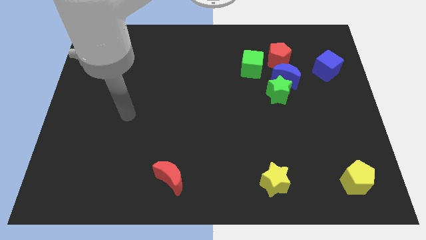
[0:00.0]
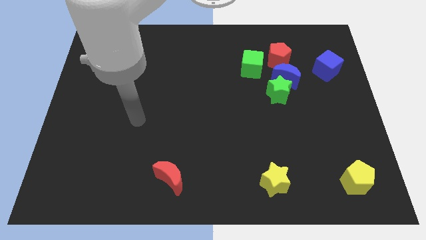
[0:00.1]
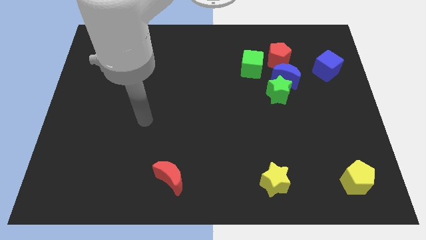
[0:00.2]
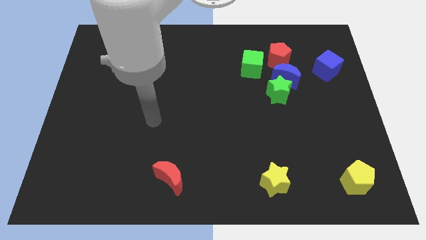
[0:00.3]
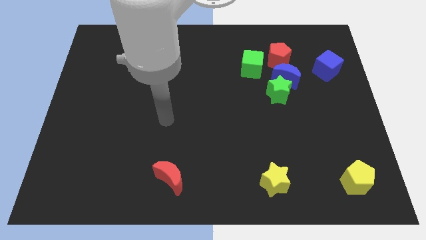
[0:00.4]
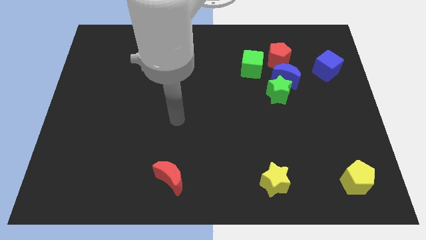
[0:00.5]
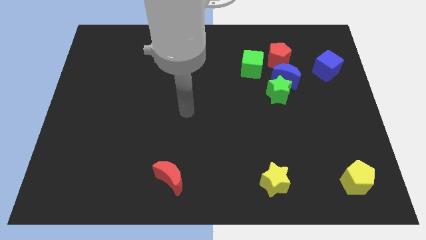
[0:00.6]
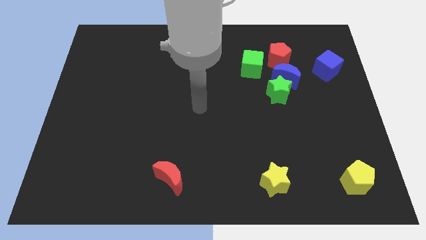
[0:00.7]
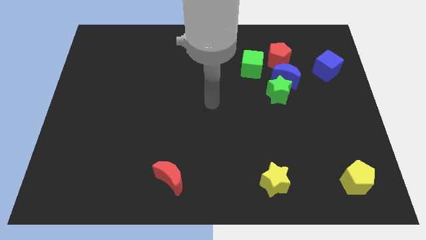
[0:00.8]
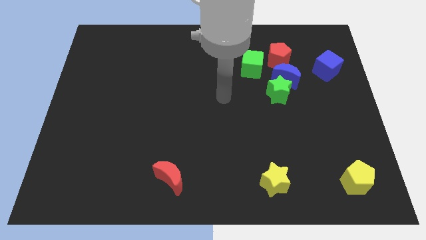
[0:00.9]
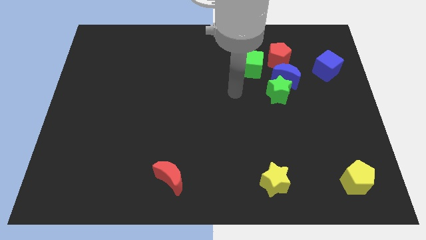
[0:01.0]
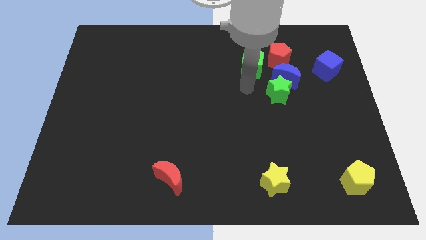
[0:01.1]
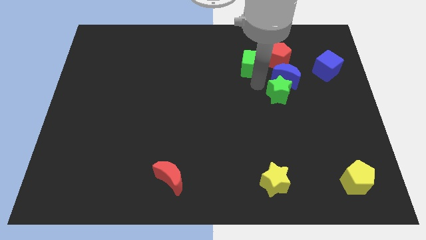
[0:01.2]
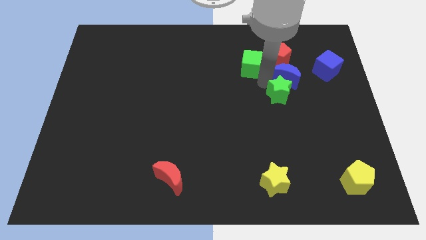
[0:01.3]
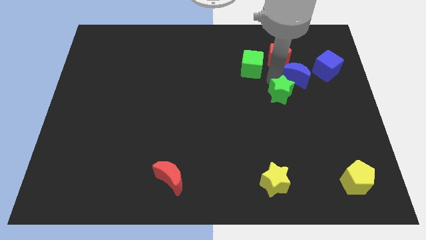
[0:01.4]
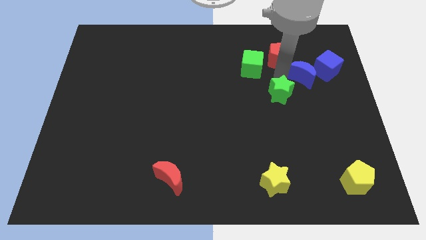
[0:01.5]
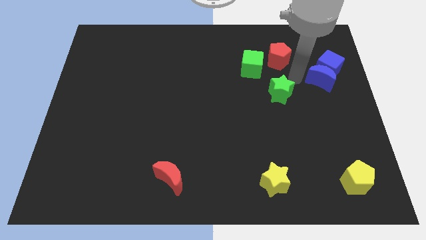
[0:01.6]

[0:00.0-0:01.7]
move the green star away from the blue moon

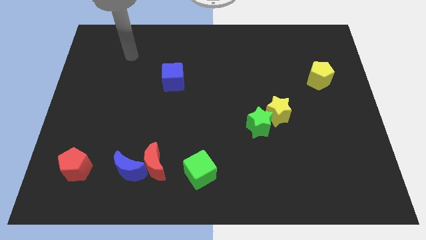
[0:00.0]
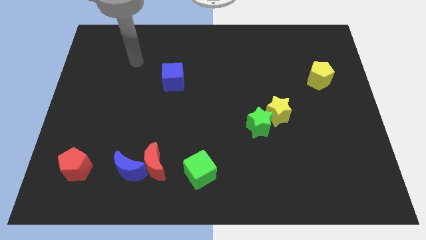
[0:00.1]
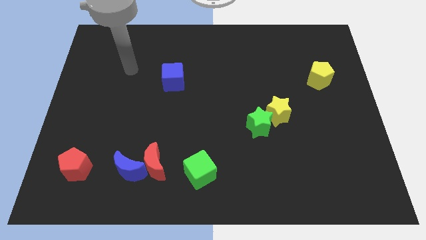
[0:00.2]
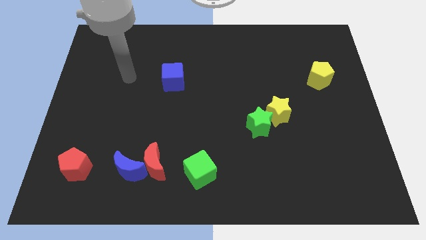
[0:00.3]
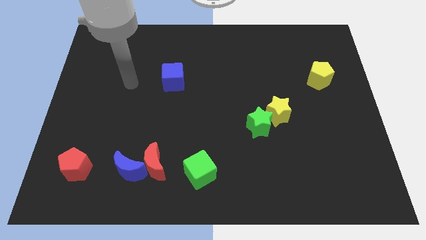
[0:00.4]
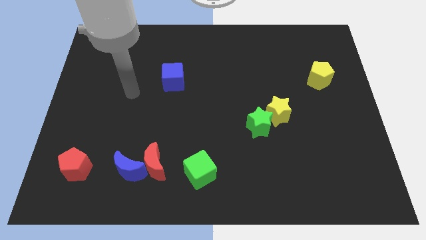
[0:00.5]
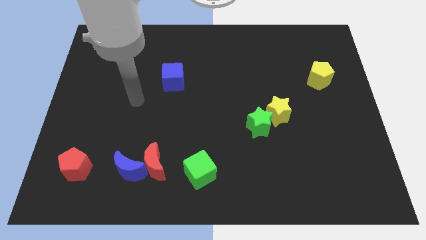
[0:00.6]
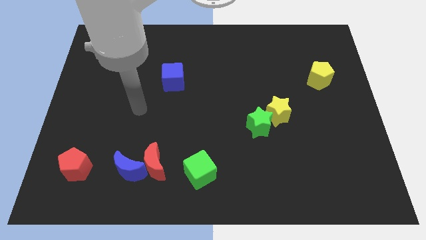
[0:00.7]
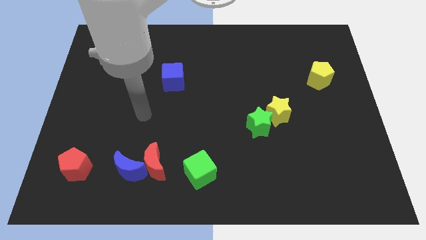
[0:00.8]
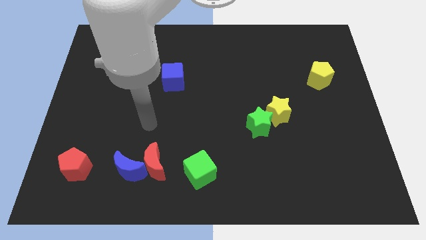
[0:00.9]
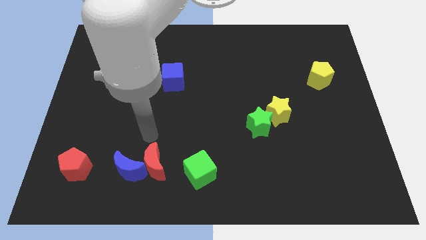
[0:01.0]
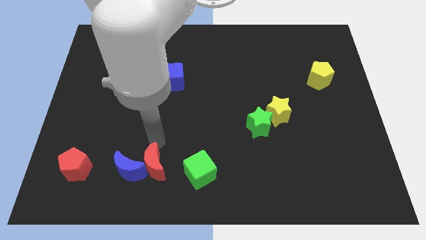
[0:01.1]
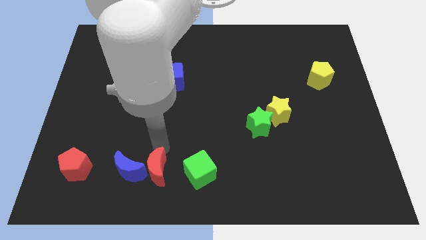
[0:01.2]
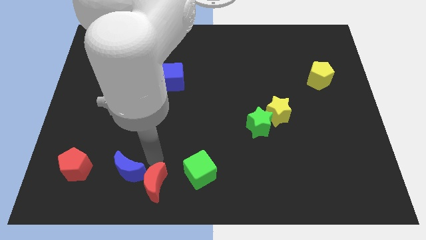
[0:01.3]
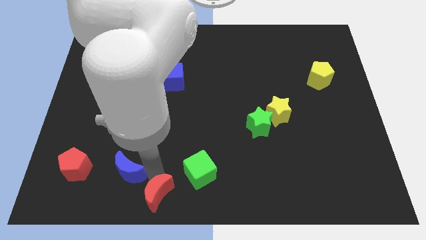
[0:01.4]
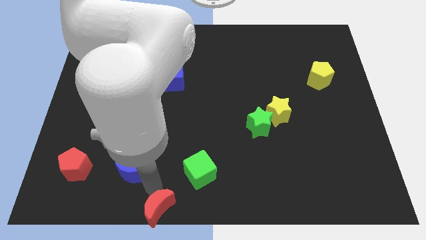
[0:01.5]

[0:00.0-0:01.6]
separate the blue moon from the red moon

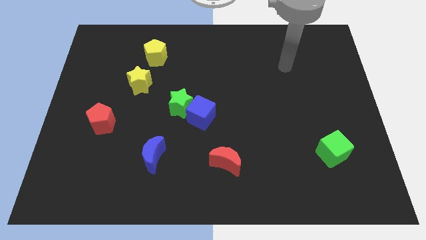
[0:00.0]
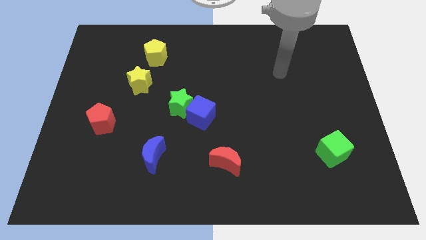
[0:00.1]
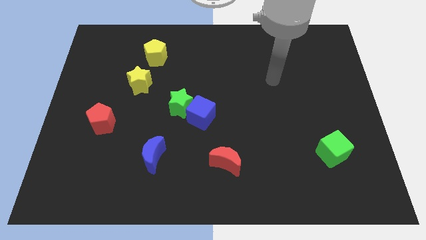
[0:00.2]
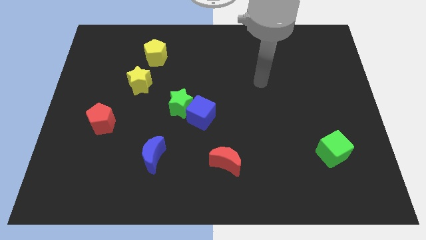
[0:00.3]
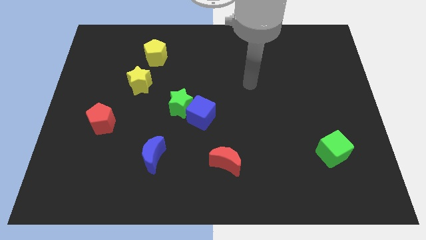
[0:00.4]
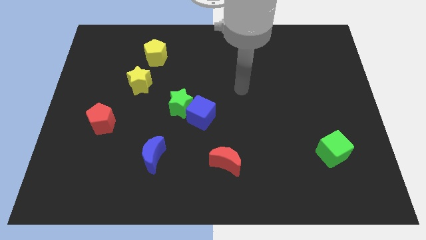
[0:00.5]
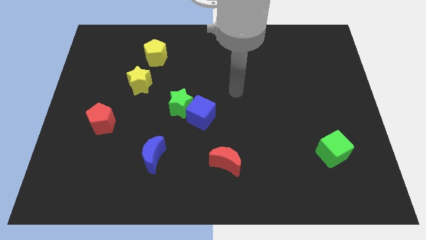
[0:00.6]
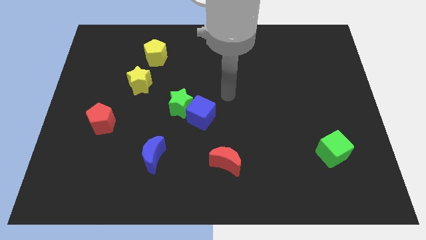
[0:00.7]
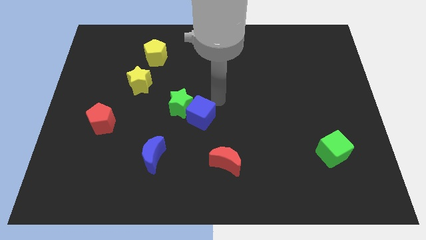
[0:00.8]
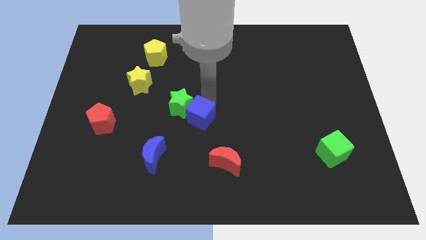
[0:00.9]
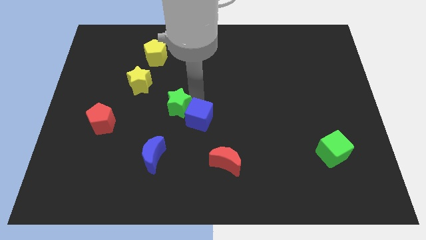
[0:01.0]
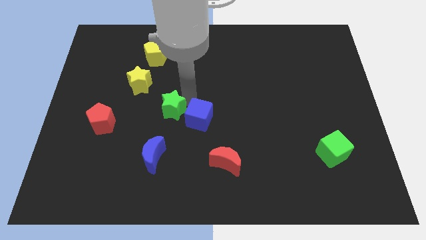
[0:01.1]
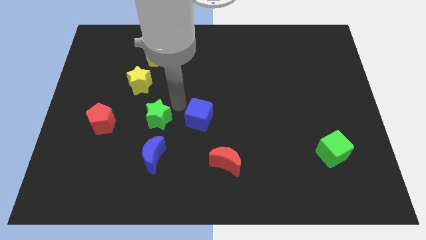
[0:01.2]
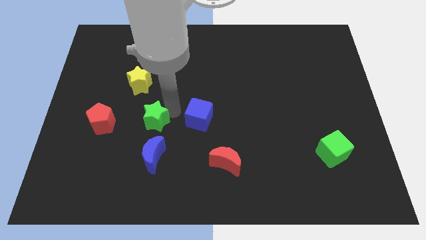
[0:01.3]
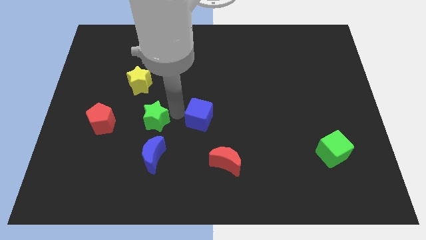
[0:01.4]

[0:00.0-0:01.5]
pull the blue cube apart from the green star

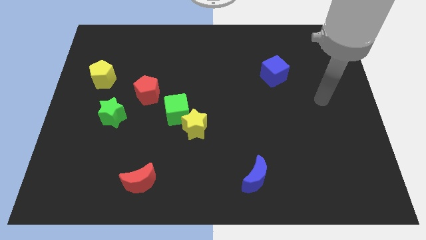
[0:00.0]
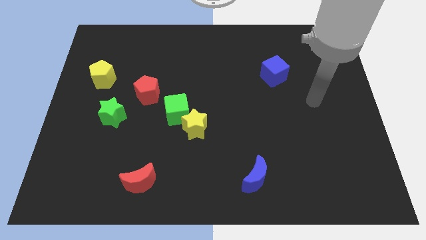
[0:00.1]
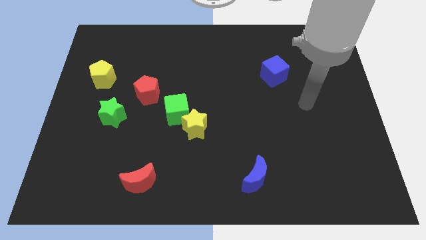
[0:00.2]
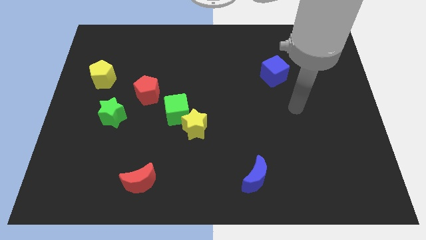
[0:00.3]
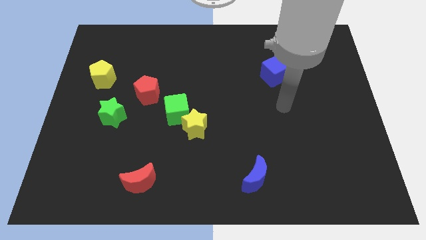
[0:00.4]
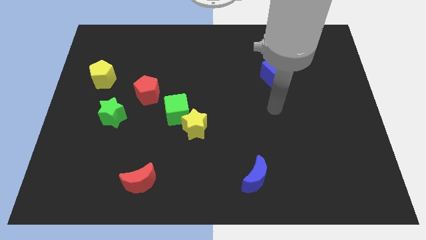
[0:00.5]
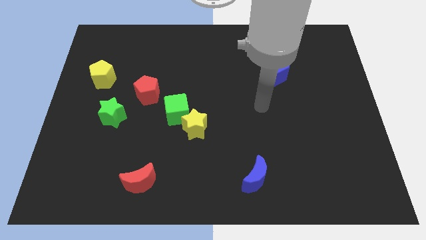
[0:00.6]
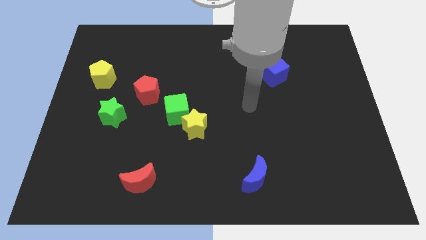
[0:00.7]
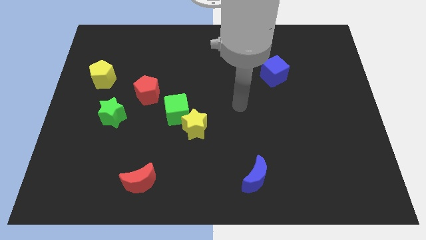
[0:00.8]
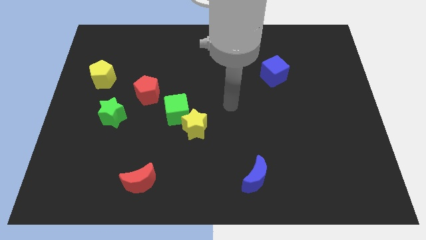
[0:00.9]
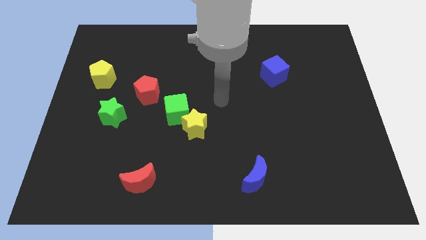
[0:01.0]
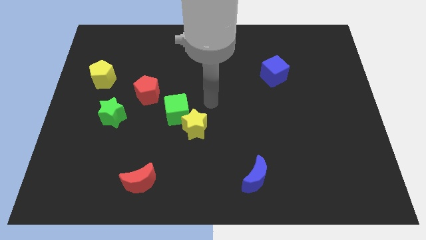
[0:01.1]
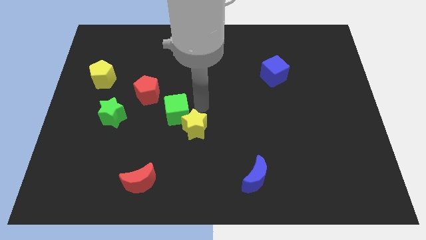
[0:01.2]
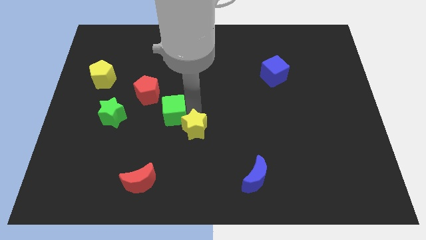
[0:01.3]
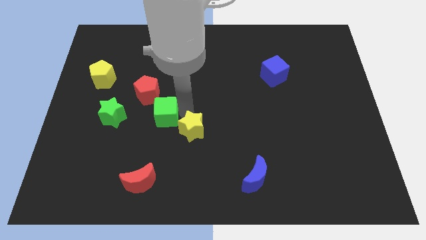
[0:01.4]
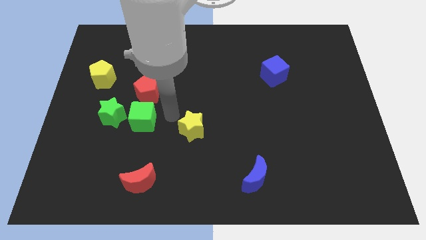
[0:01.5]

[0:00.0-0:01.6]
pull the yellow star apart from the green cube

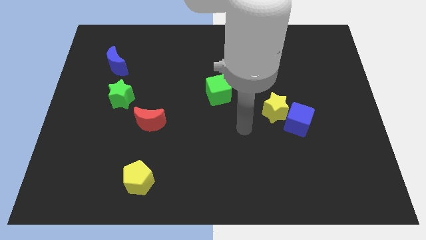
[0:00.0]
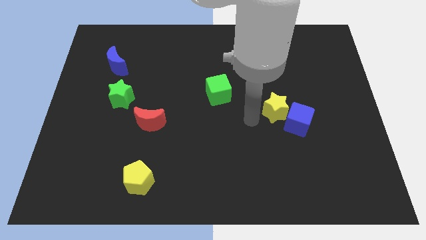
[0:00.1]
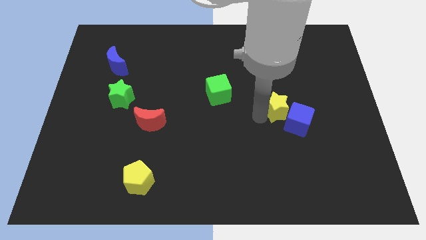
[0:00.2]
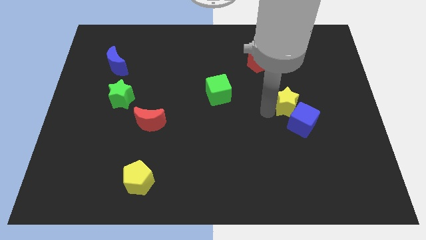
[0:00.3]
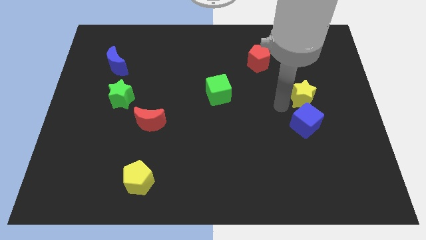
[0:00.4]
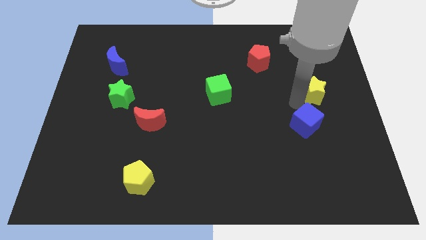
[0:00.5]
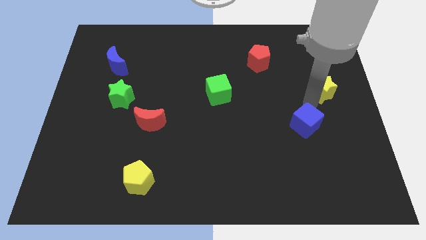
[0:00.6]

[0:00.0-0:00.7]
move the blue cube away from the yellow star

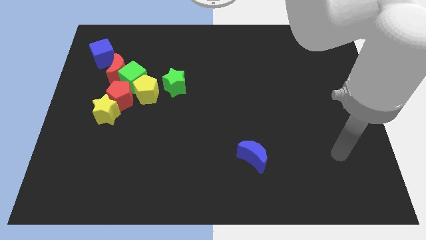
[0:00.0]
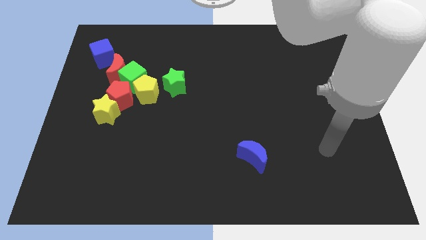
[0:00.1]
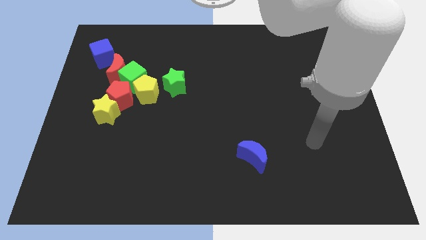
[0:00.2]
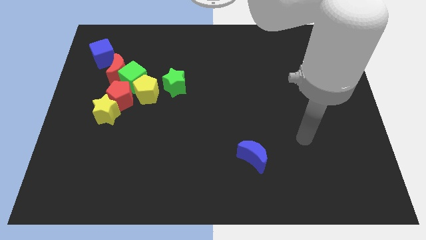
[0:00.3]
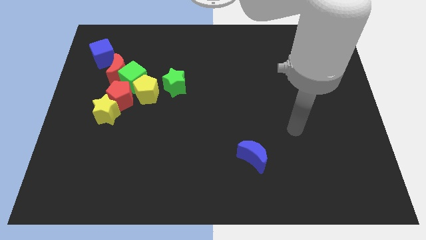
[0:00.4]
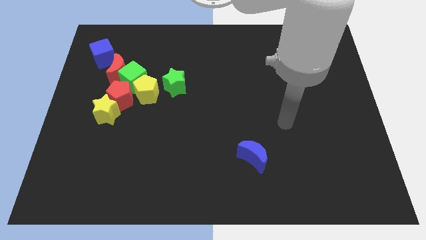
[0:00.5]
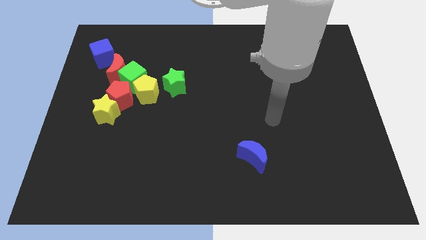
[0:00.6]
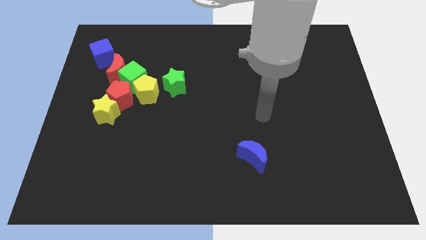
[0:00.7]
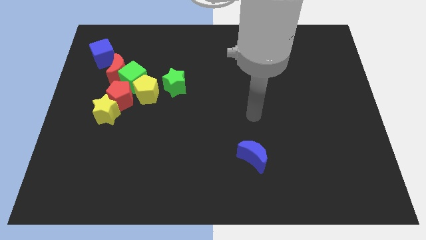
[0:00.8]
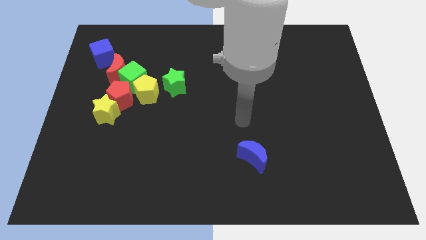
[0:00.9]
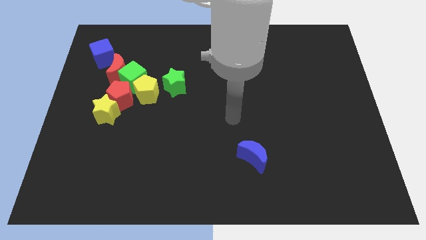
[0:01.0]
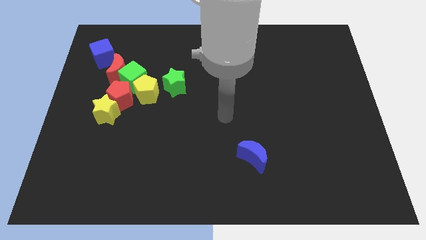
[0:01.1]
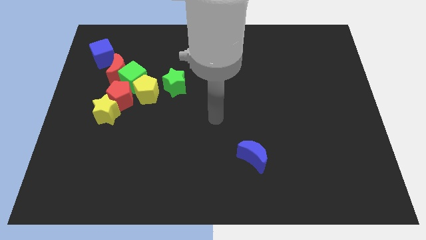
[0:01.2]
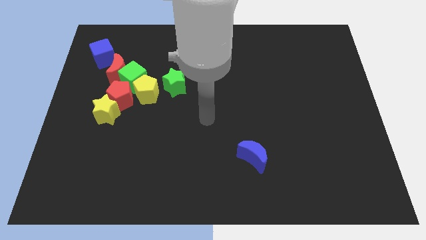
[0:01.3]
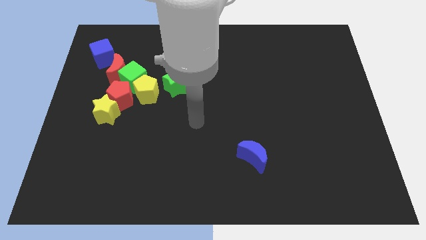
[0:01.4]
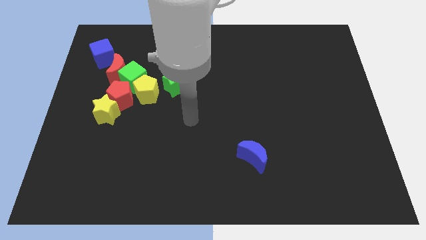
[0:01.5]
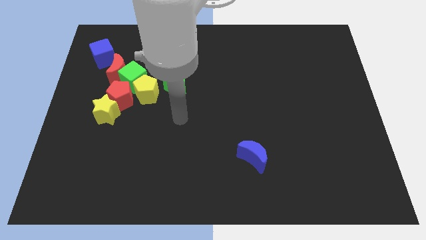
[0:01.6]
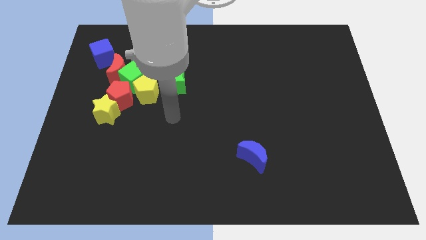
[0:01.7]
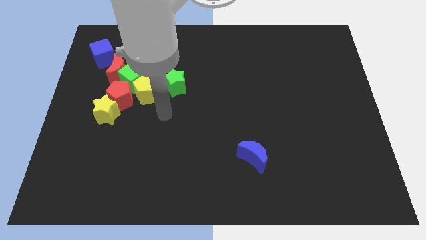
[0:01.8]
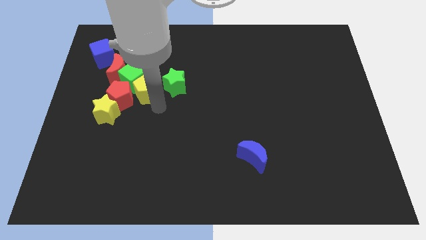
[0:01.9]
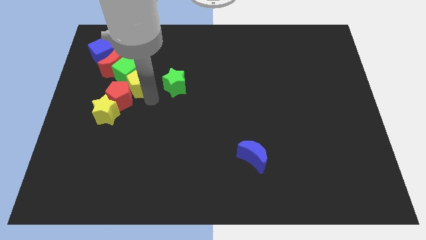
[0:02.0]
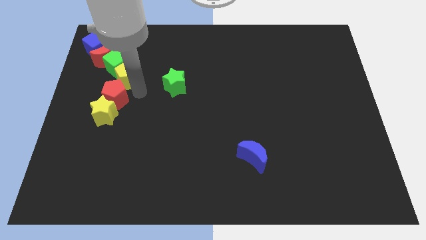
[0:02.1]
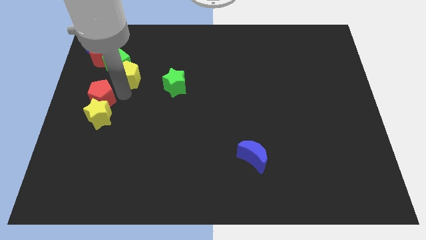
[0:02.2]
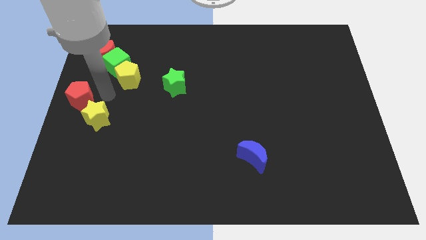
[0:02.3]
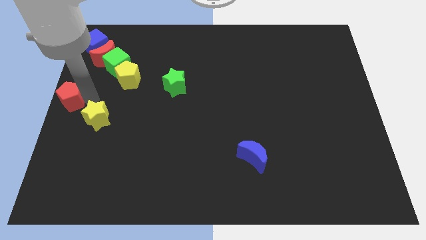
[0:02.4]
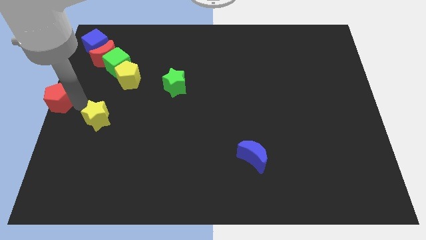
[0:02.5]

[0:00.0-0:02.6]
separate the yellow star from the red pentagon
